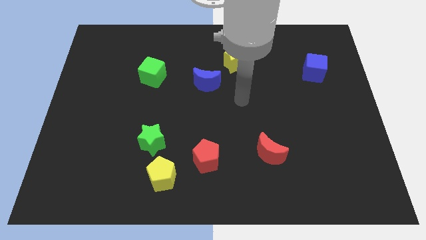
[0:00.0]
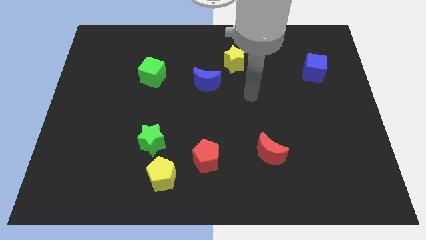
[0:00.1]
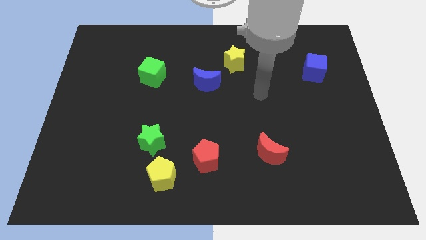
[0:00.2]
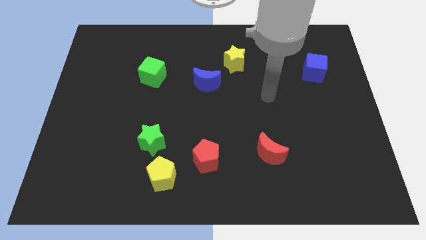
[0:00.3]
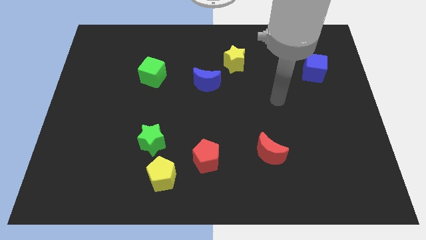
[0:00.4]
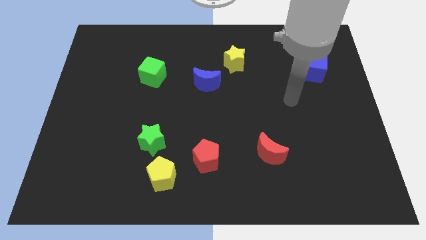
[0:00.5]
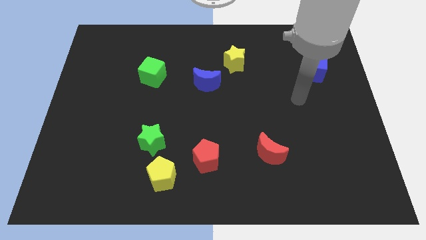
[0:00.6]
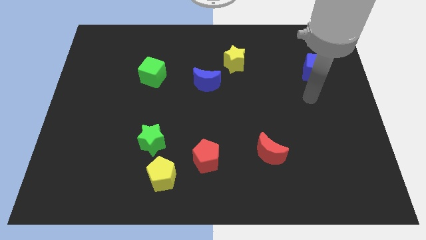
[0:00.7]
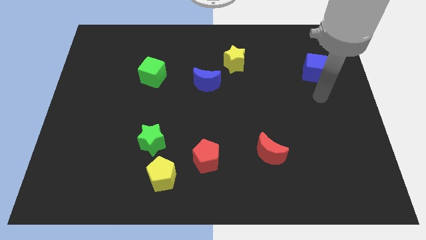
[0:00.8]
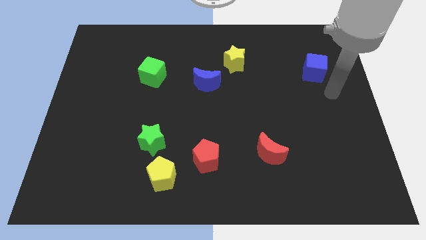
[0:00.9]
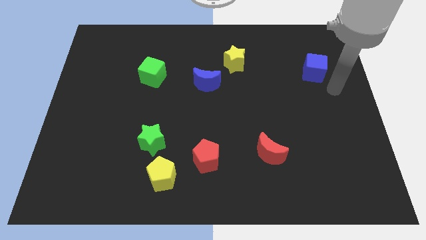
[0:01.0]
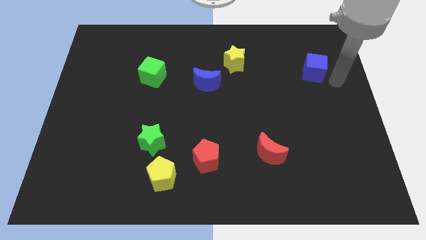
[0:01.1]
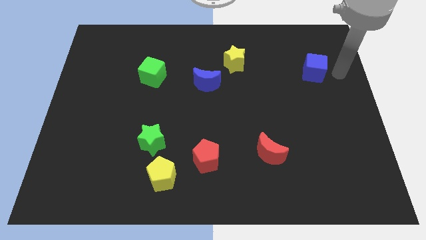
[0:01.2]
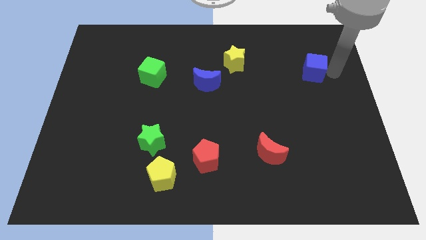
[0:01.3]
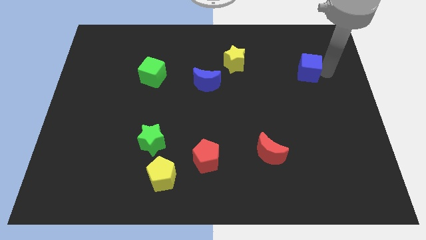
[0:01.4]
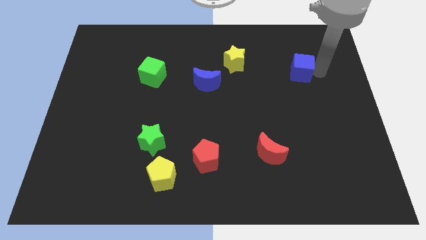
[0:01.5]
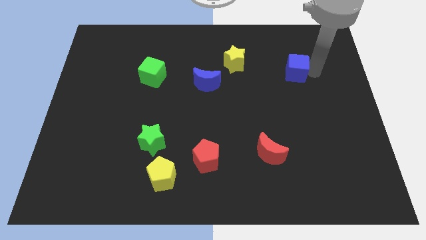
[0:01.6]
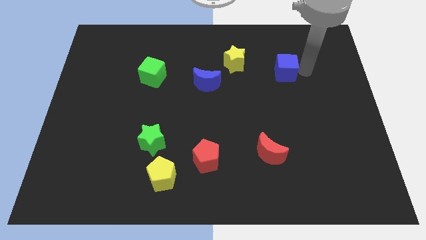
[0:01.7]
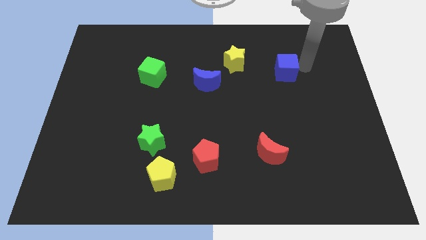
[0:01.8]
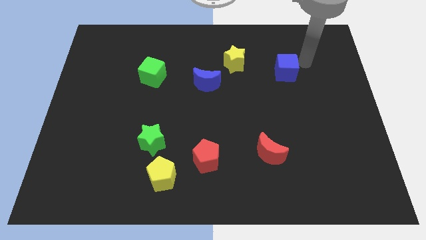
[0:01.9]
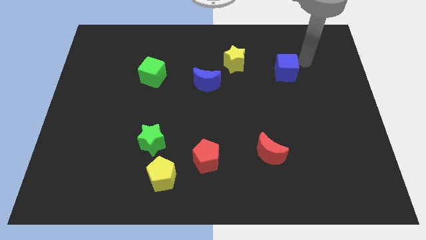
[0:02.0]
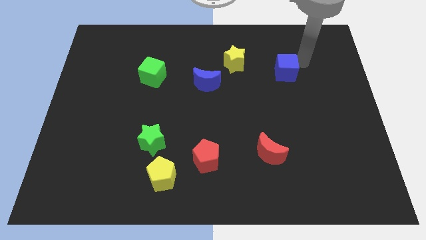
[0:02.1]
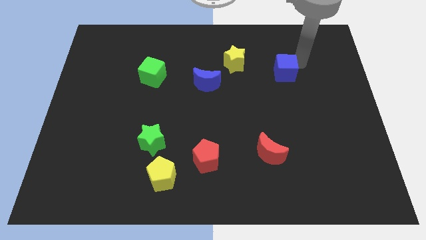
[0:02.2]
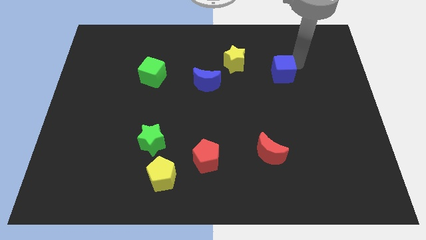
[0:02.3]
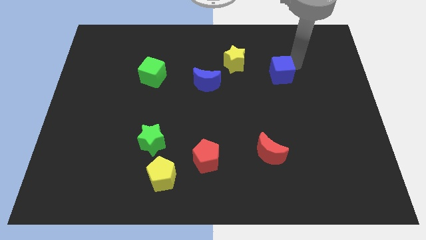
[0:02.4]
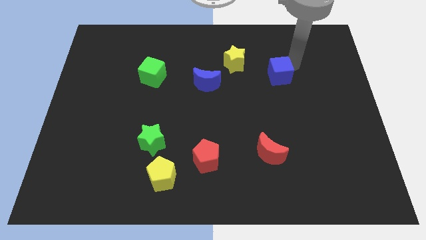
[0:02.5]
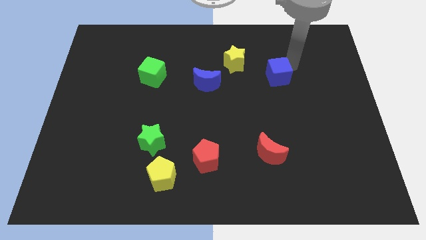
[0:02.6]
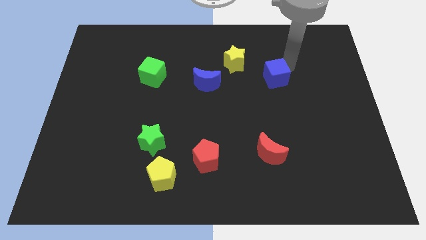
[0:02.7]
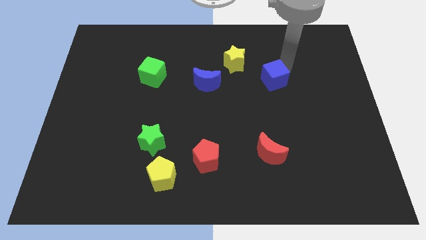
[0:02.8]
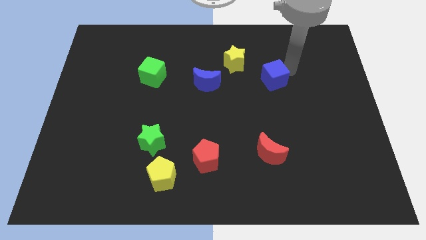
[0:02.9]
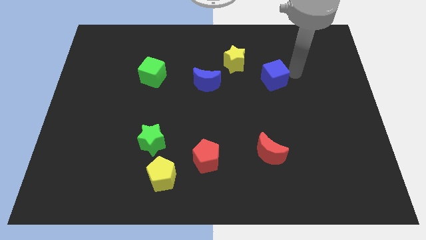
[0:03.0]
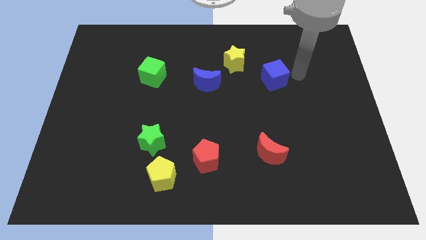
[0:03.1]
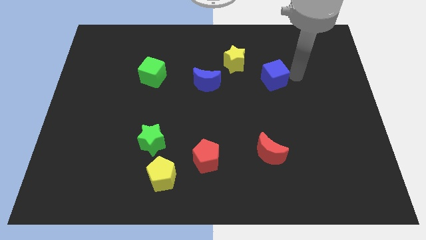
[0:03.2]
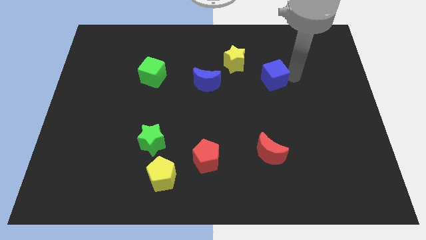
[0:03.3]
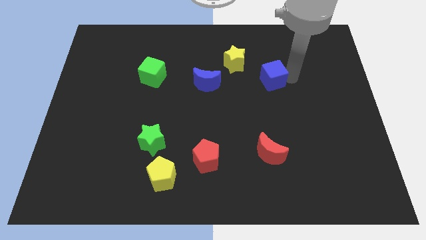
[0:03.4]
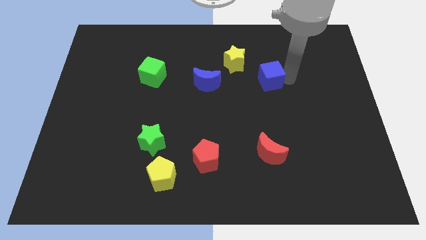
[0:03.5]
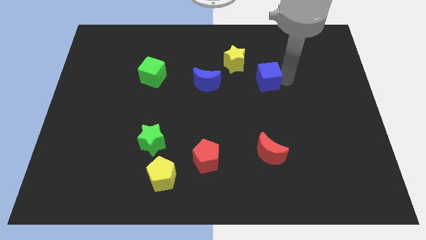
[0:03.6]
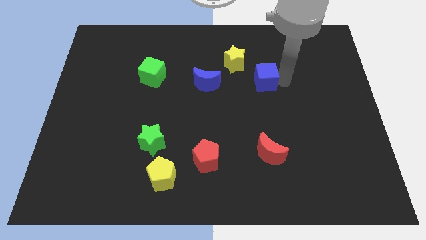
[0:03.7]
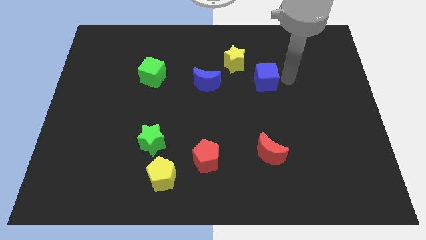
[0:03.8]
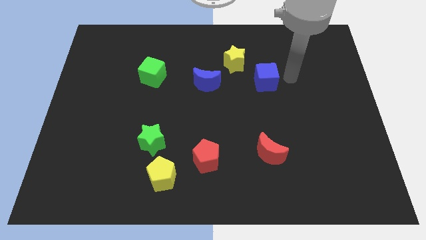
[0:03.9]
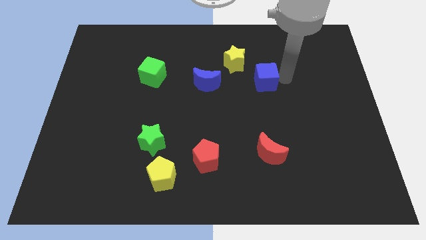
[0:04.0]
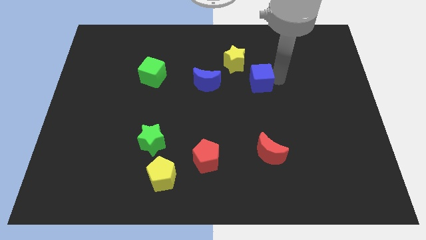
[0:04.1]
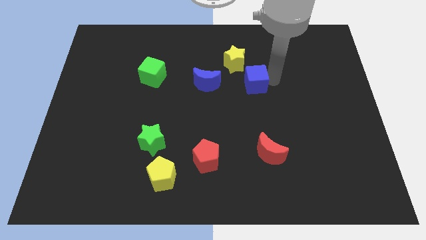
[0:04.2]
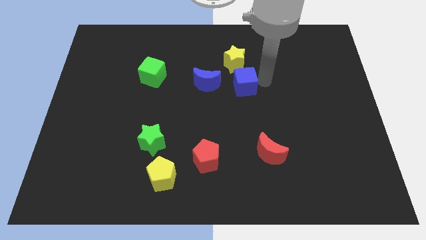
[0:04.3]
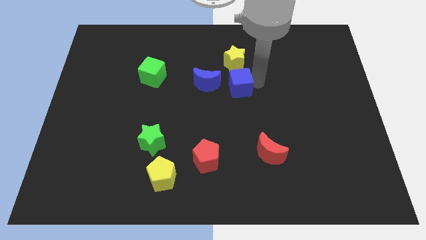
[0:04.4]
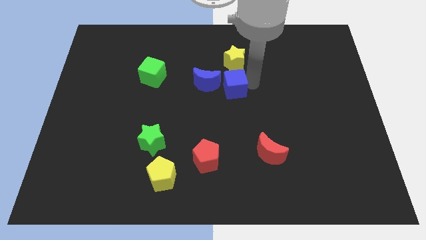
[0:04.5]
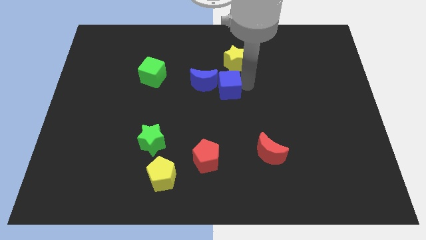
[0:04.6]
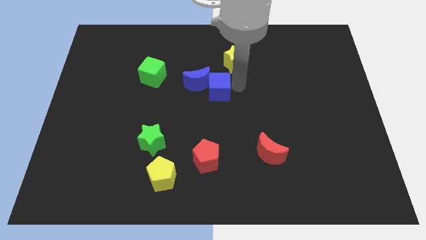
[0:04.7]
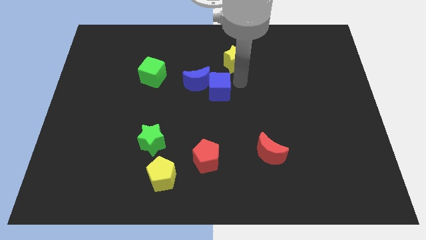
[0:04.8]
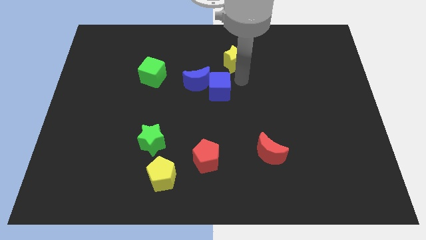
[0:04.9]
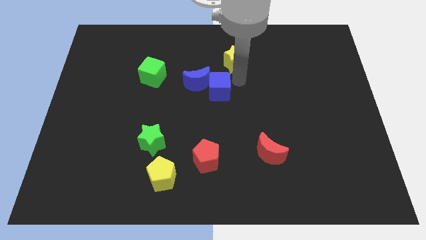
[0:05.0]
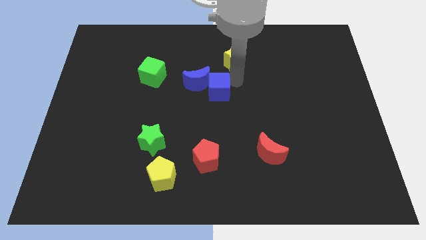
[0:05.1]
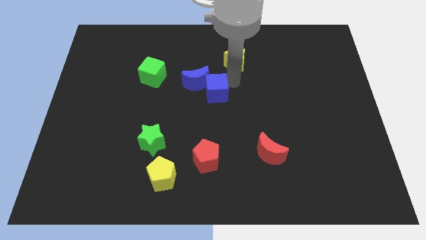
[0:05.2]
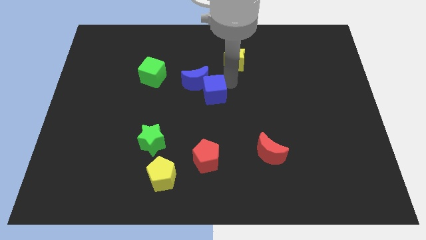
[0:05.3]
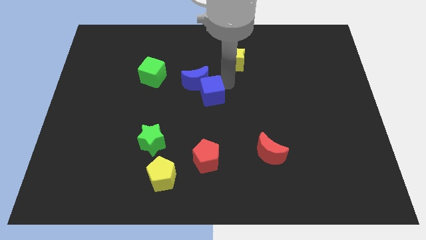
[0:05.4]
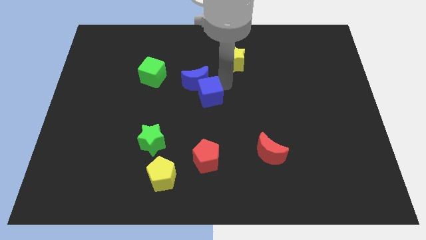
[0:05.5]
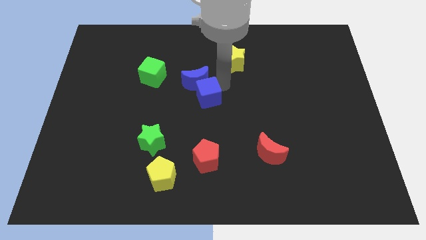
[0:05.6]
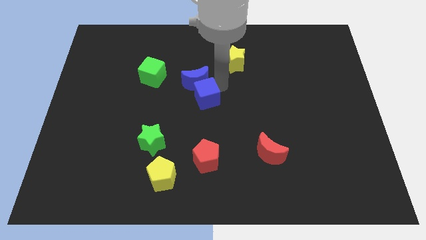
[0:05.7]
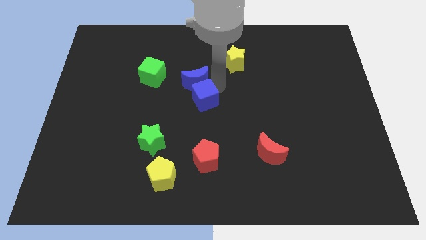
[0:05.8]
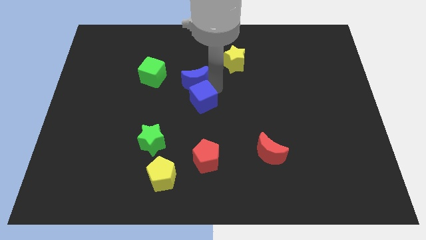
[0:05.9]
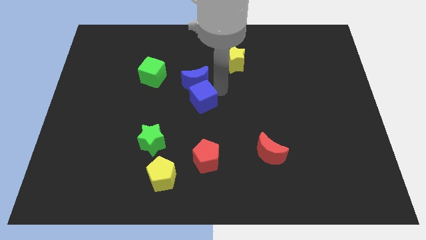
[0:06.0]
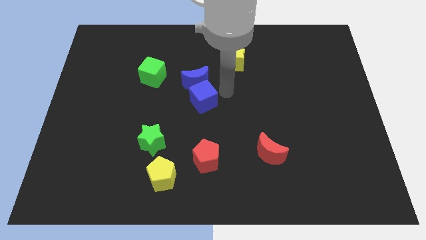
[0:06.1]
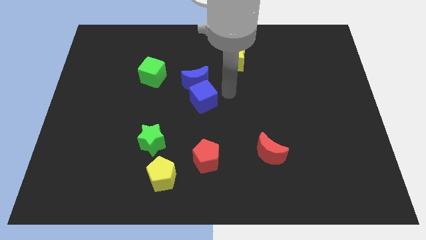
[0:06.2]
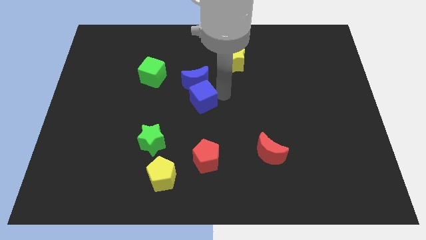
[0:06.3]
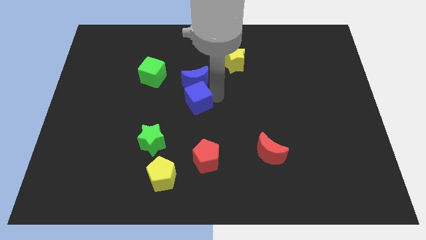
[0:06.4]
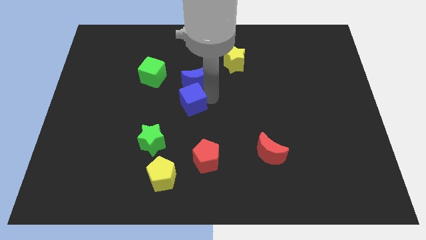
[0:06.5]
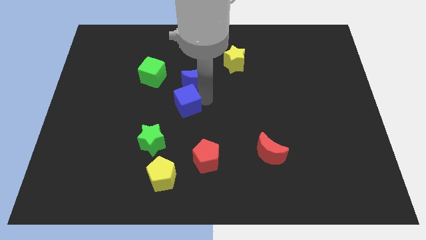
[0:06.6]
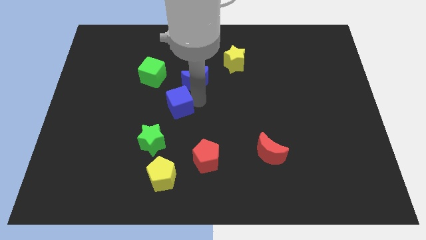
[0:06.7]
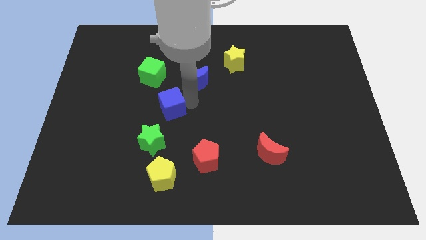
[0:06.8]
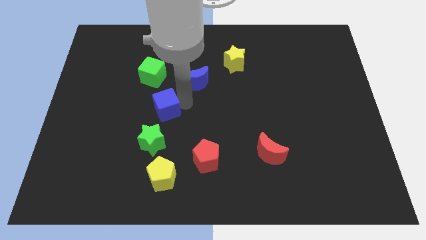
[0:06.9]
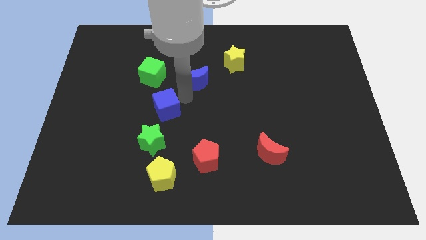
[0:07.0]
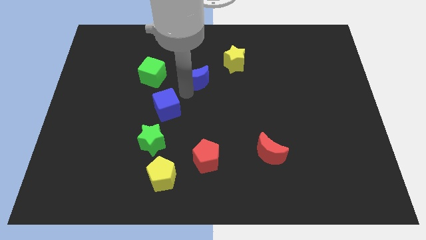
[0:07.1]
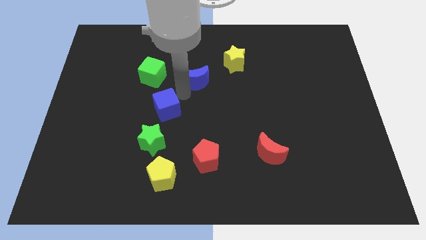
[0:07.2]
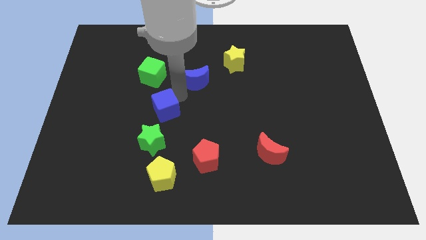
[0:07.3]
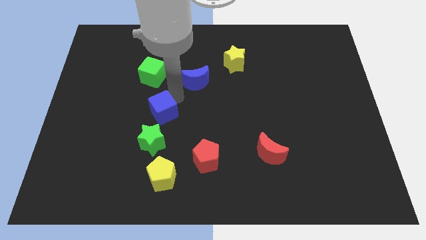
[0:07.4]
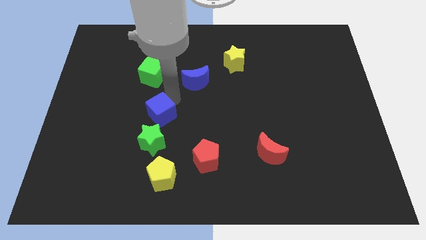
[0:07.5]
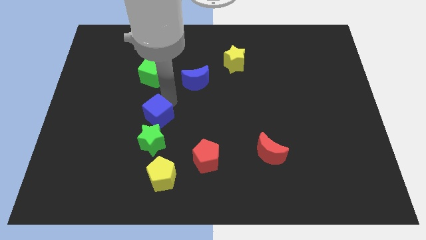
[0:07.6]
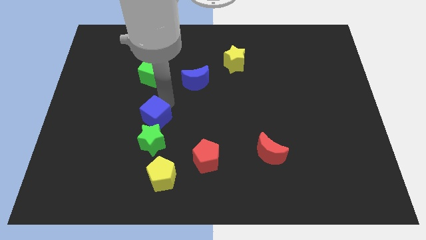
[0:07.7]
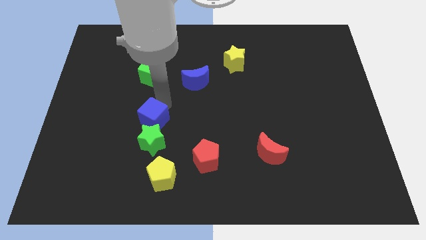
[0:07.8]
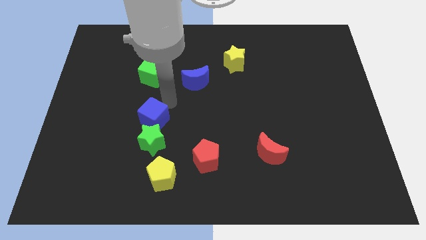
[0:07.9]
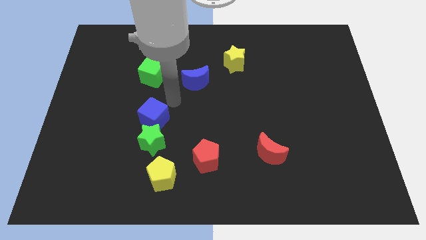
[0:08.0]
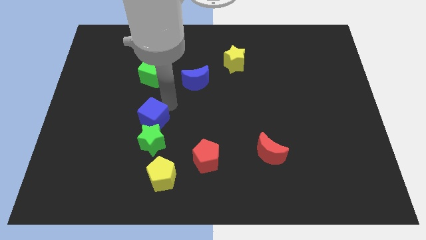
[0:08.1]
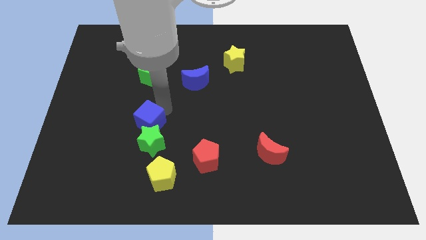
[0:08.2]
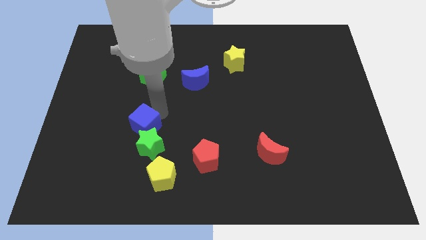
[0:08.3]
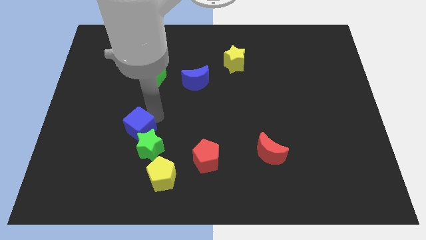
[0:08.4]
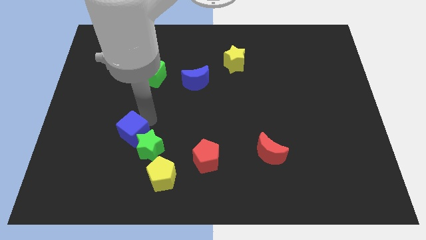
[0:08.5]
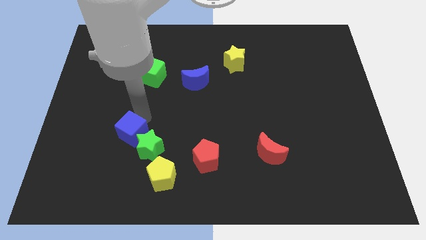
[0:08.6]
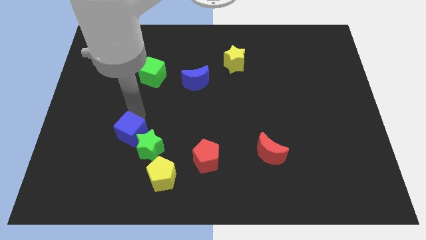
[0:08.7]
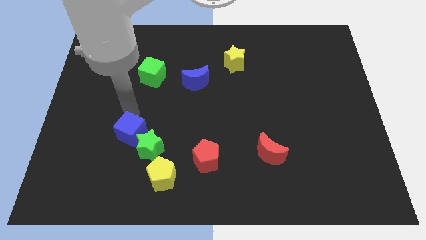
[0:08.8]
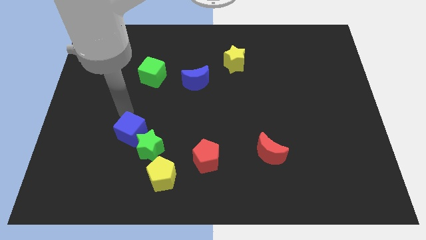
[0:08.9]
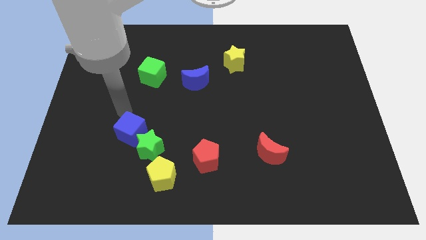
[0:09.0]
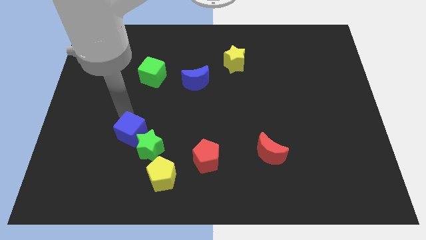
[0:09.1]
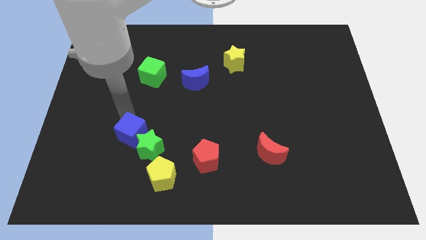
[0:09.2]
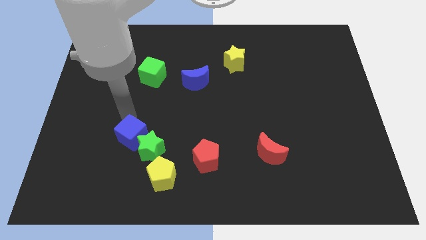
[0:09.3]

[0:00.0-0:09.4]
put the blue cube diagonally up and to the left of the yellow pentagon
